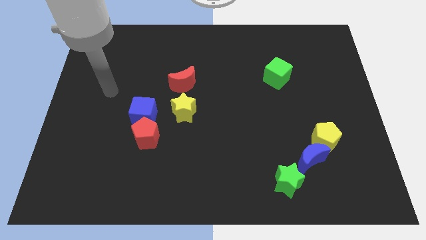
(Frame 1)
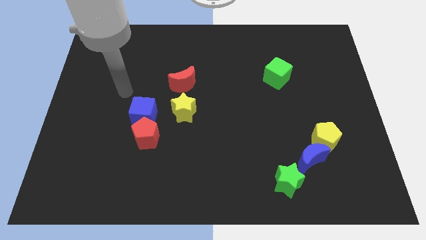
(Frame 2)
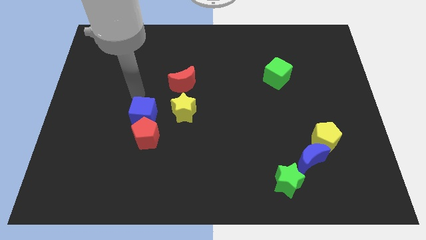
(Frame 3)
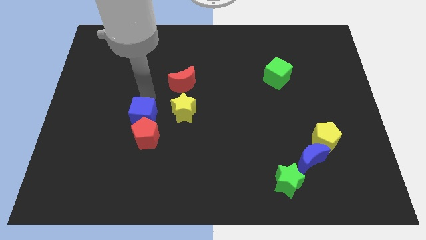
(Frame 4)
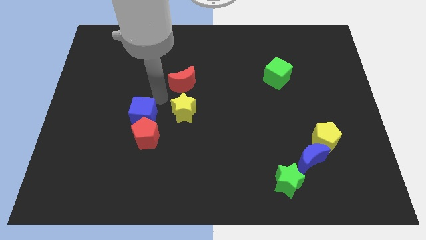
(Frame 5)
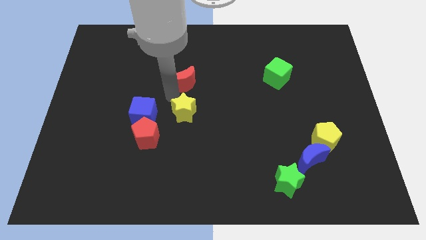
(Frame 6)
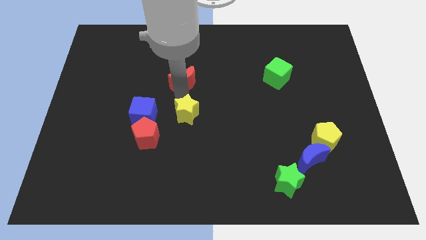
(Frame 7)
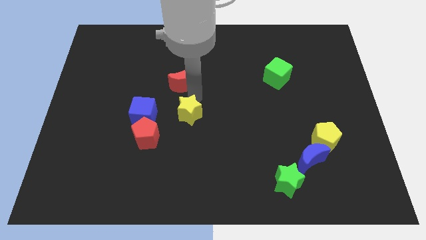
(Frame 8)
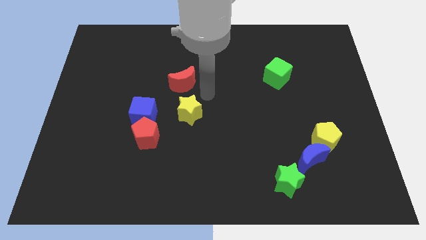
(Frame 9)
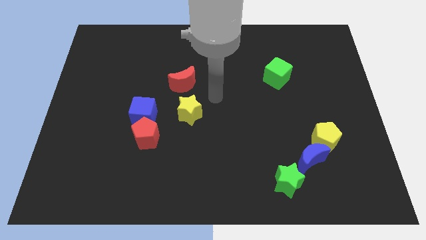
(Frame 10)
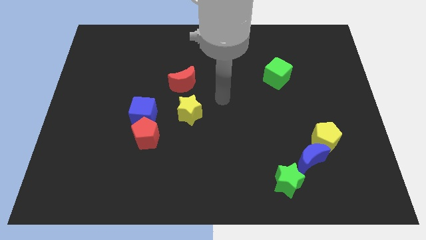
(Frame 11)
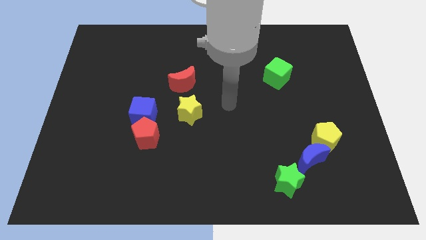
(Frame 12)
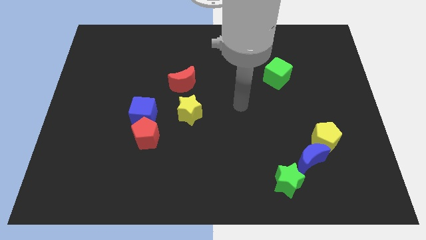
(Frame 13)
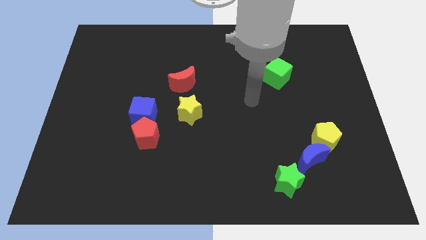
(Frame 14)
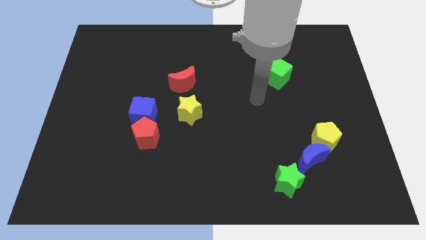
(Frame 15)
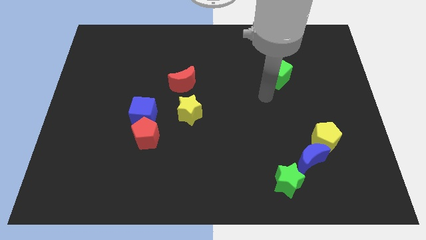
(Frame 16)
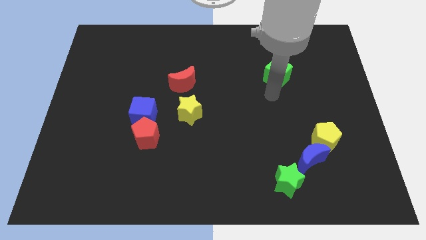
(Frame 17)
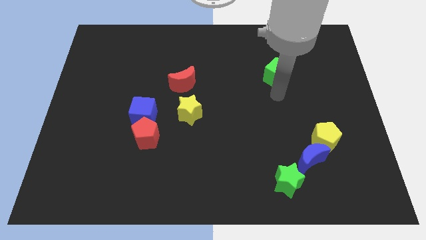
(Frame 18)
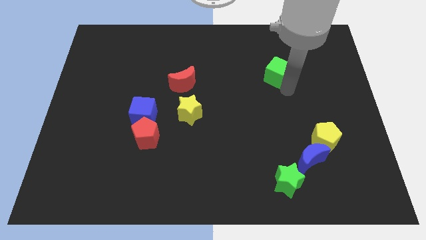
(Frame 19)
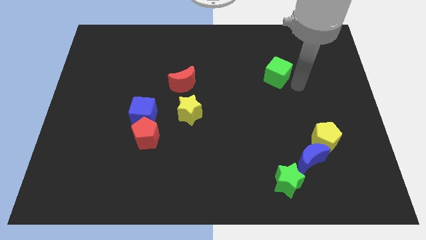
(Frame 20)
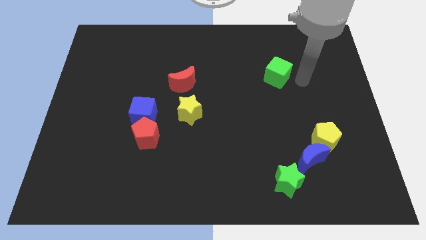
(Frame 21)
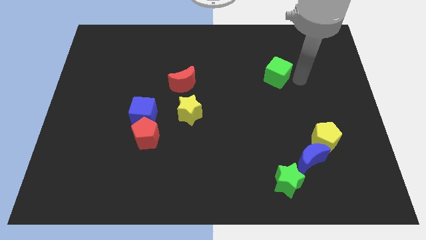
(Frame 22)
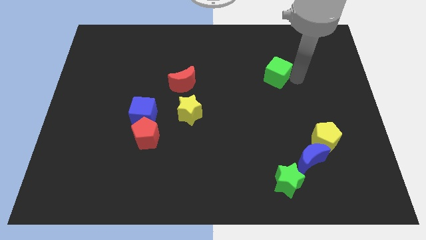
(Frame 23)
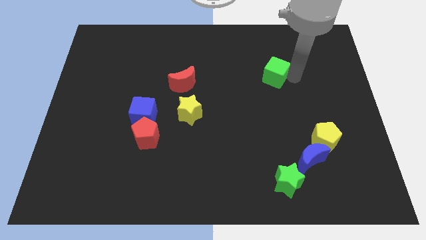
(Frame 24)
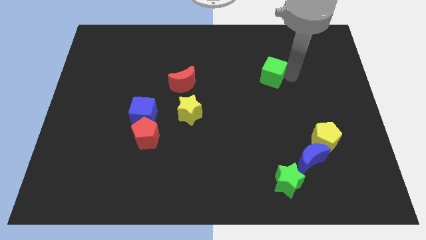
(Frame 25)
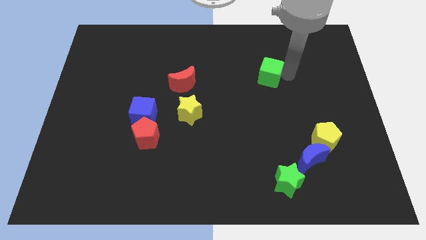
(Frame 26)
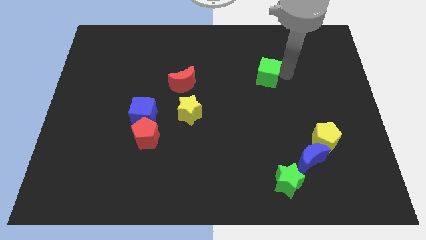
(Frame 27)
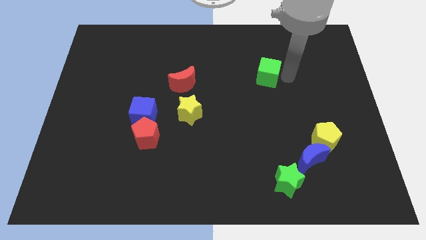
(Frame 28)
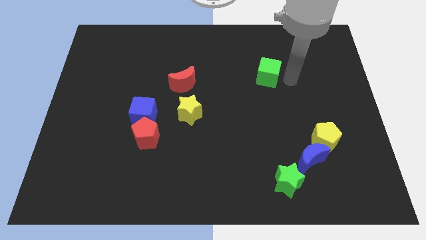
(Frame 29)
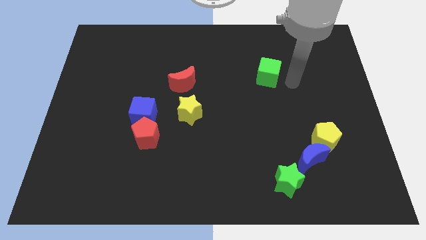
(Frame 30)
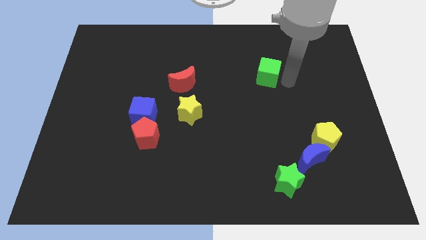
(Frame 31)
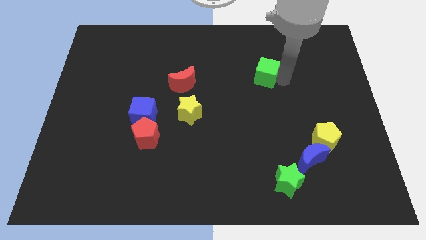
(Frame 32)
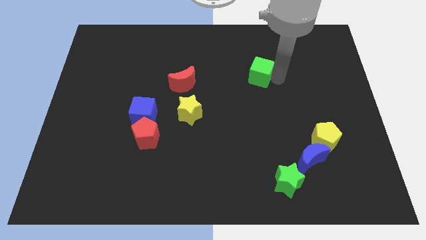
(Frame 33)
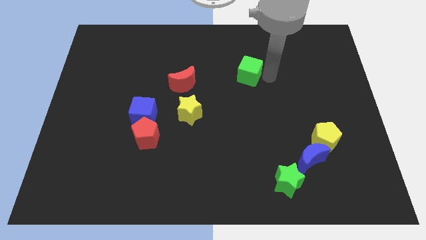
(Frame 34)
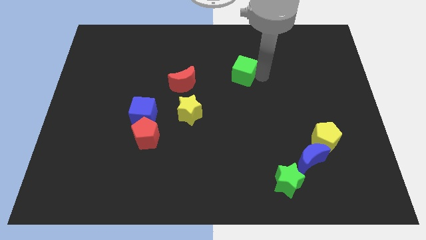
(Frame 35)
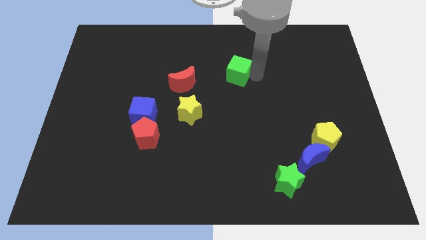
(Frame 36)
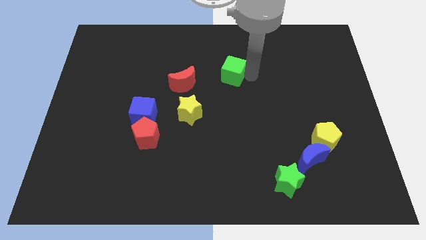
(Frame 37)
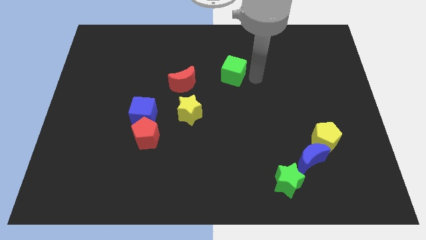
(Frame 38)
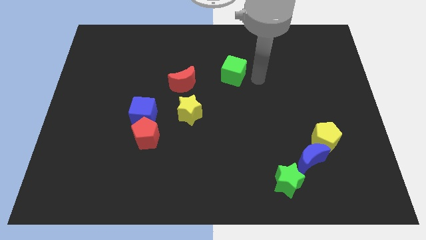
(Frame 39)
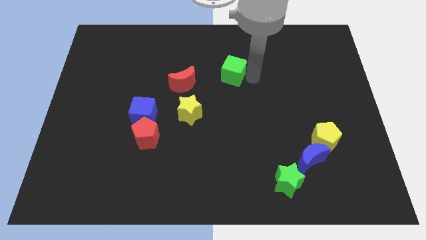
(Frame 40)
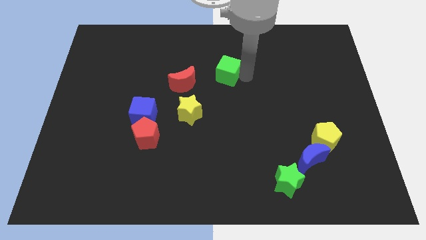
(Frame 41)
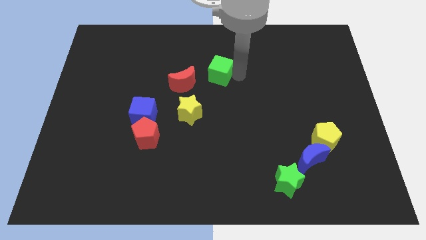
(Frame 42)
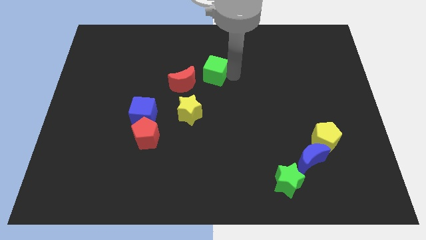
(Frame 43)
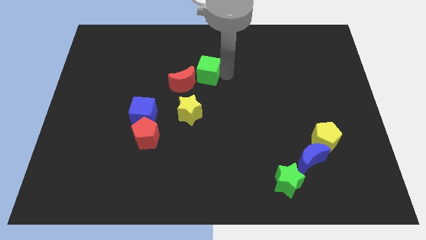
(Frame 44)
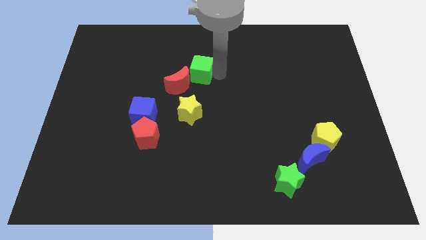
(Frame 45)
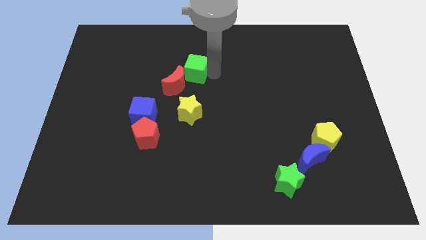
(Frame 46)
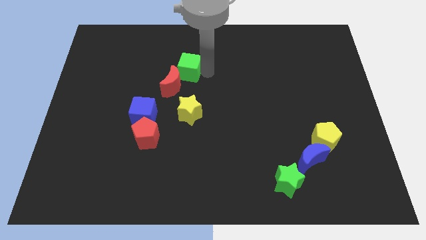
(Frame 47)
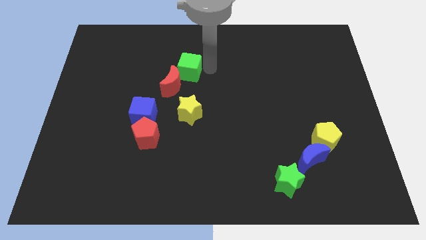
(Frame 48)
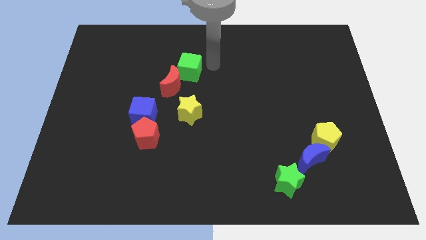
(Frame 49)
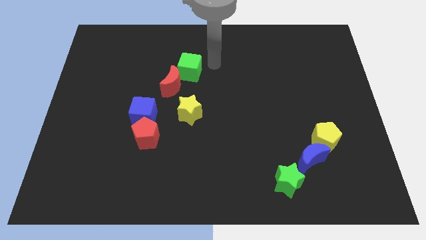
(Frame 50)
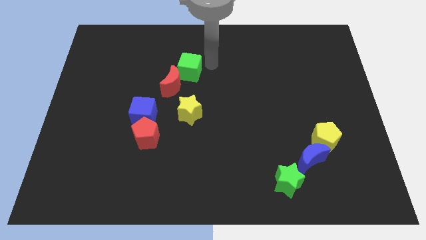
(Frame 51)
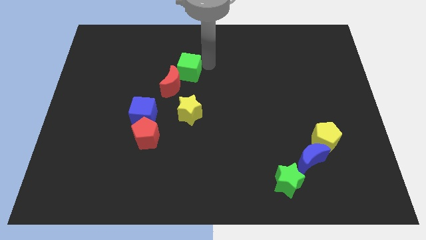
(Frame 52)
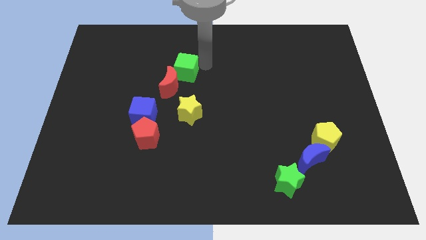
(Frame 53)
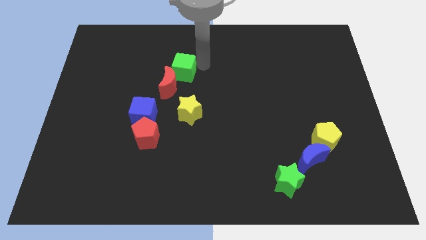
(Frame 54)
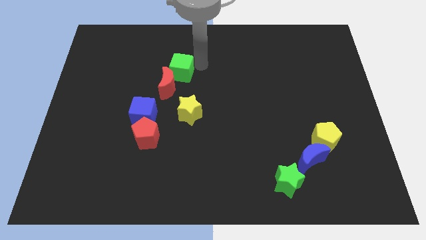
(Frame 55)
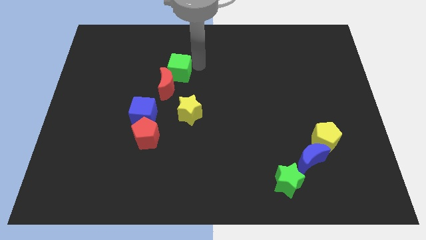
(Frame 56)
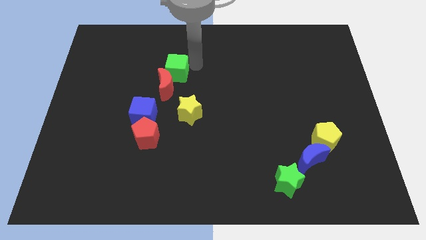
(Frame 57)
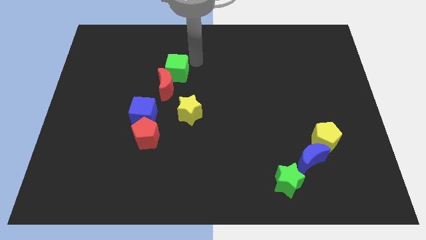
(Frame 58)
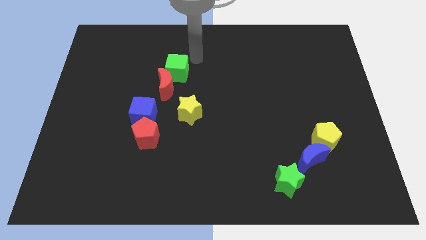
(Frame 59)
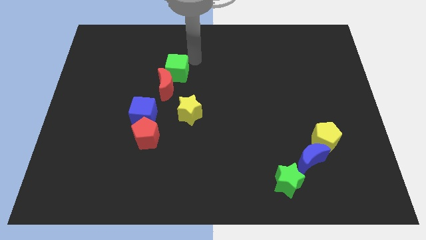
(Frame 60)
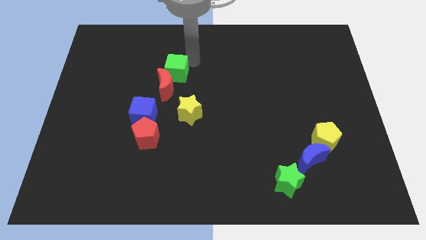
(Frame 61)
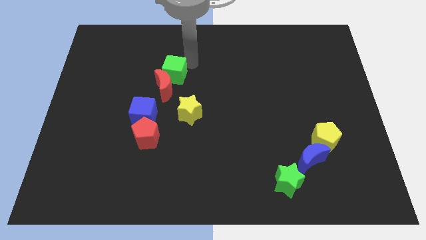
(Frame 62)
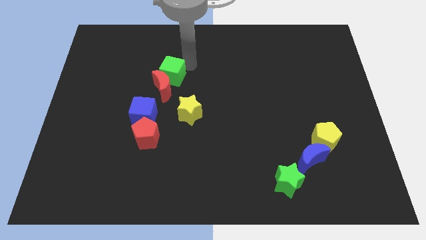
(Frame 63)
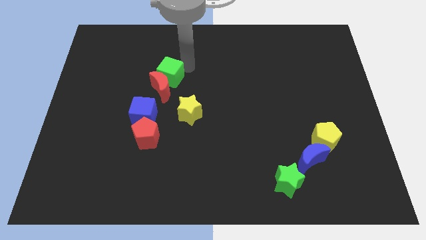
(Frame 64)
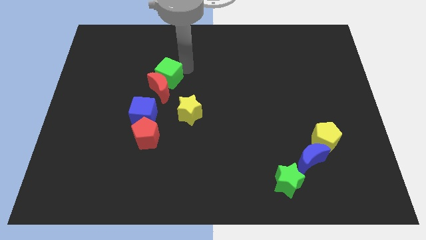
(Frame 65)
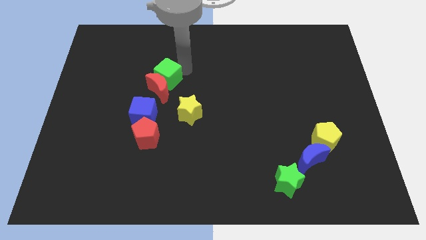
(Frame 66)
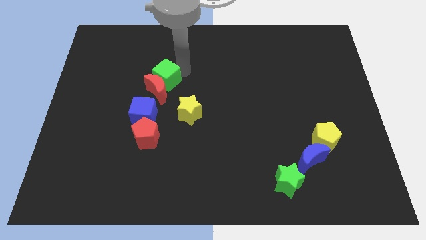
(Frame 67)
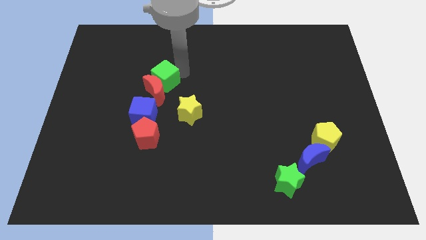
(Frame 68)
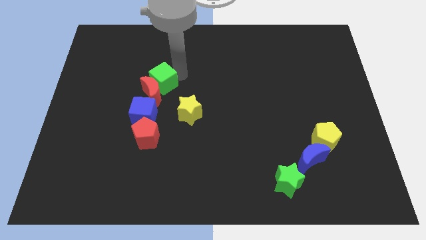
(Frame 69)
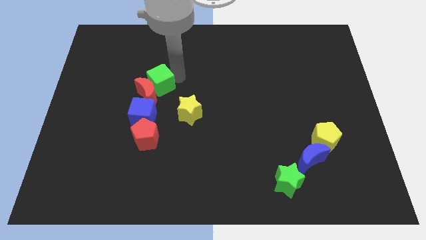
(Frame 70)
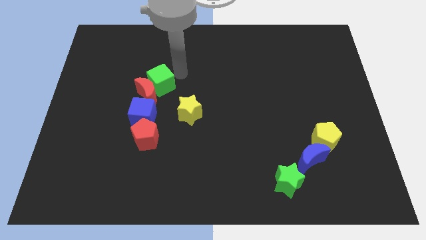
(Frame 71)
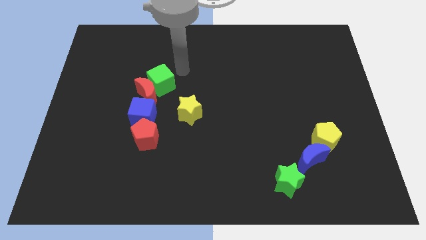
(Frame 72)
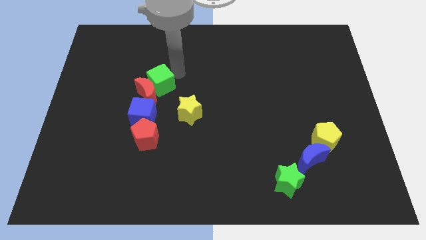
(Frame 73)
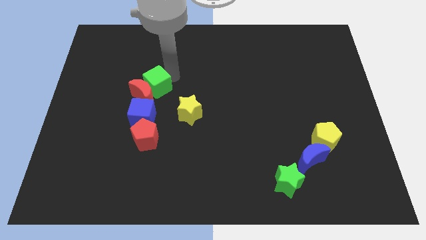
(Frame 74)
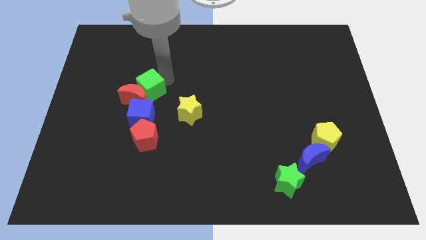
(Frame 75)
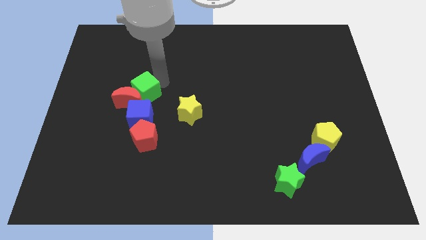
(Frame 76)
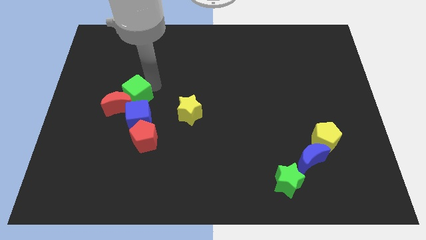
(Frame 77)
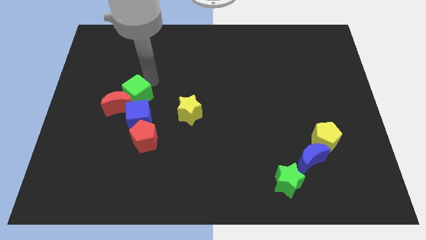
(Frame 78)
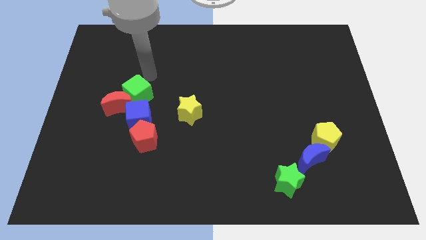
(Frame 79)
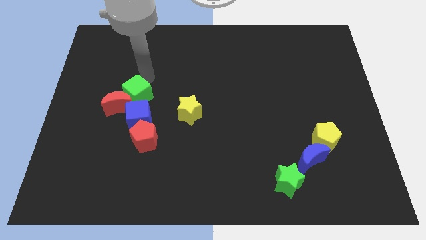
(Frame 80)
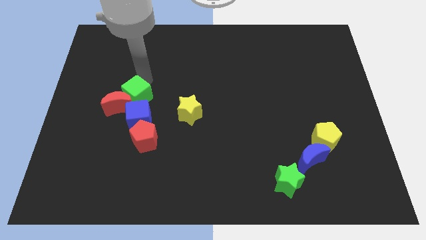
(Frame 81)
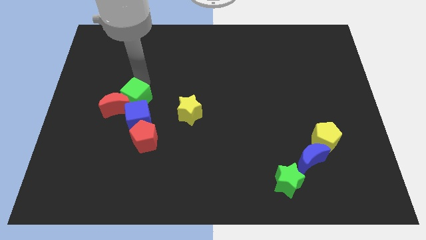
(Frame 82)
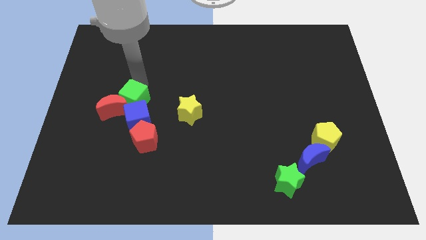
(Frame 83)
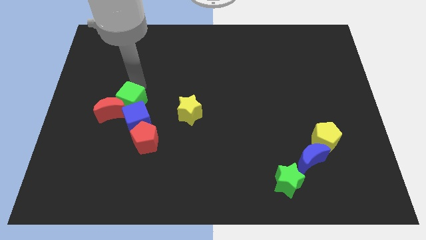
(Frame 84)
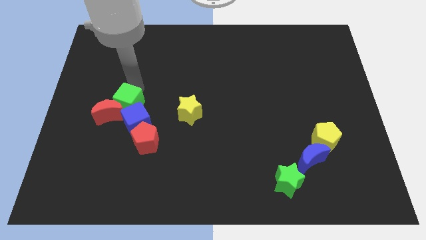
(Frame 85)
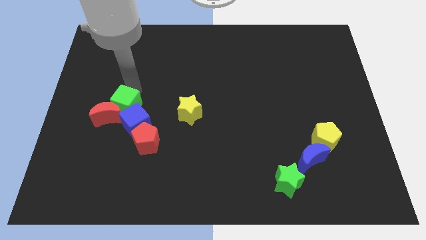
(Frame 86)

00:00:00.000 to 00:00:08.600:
move the green cube diagonally up and to the left of the red pentagon
